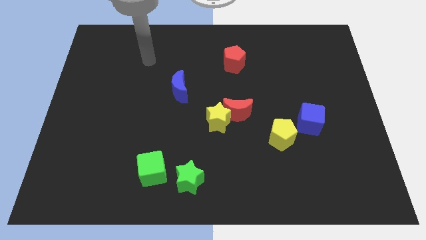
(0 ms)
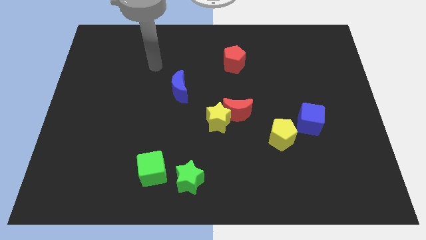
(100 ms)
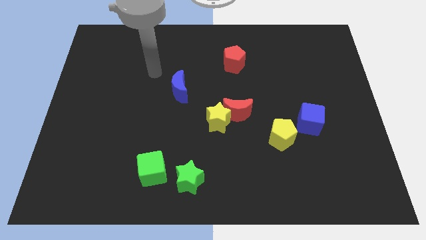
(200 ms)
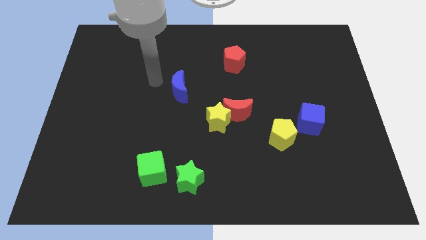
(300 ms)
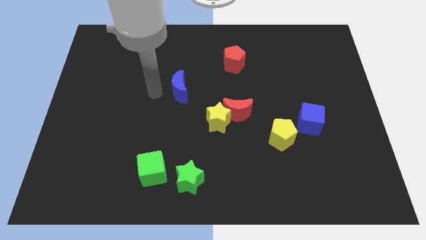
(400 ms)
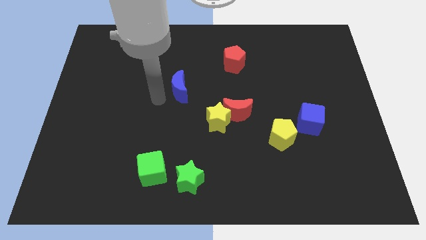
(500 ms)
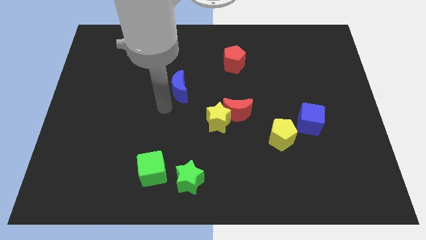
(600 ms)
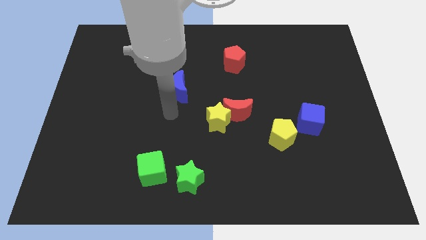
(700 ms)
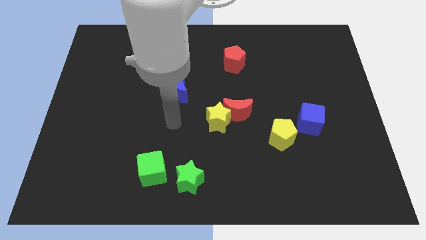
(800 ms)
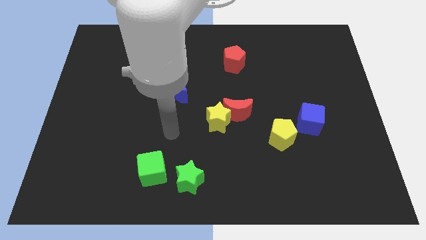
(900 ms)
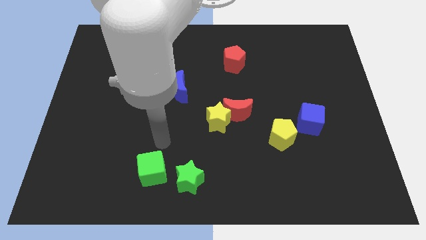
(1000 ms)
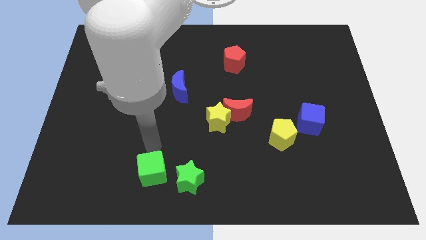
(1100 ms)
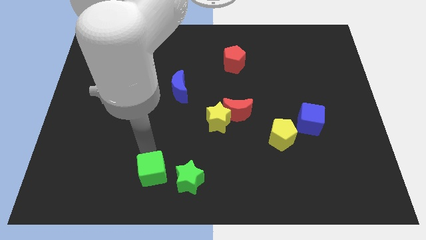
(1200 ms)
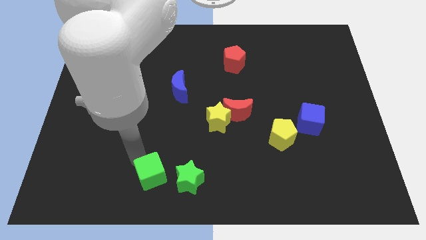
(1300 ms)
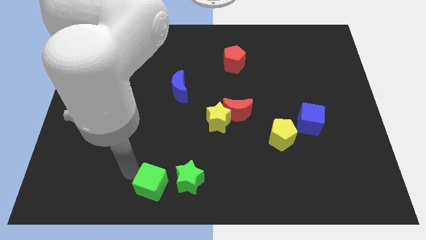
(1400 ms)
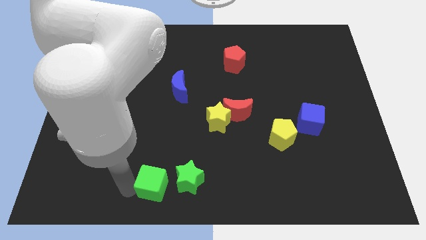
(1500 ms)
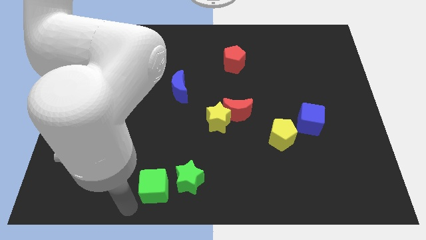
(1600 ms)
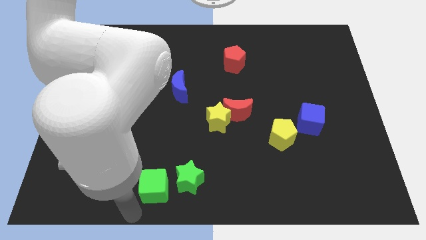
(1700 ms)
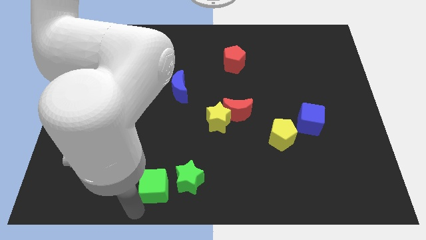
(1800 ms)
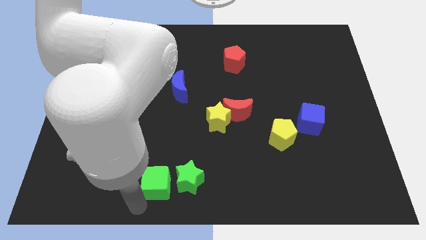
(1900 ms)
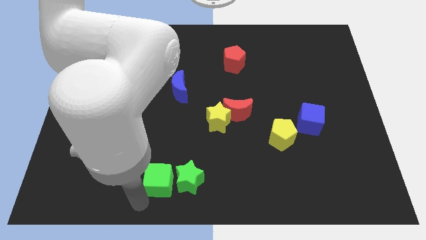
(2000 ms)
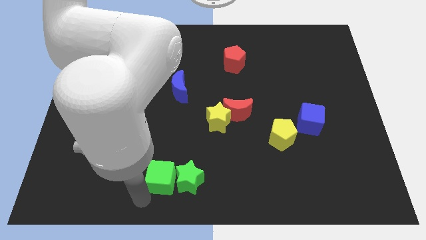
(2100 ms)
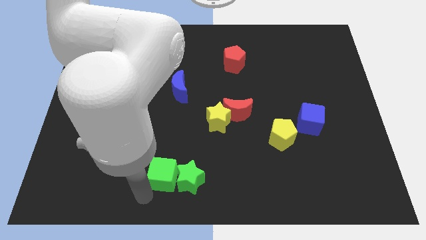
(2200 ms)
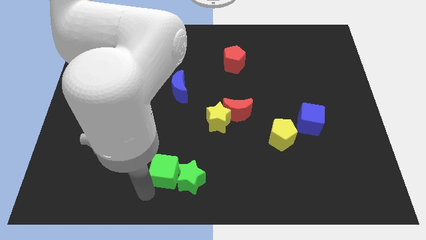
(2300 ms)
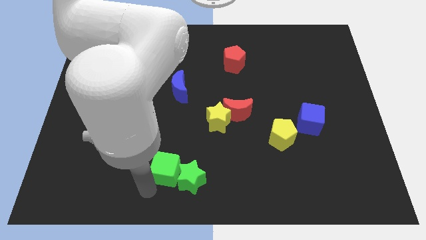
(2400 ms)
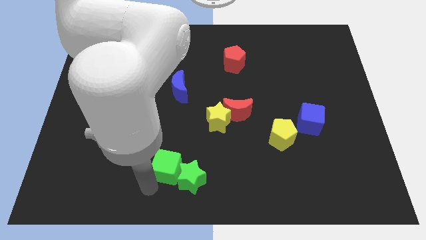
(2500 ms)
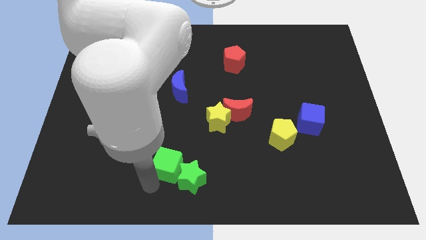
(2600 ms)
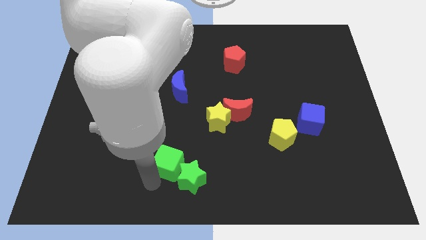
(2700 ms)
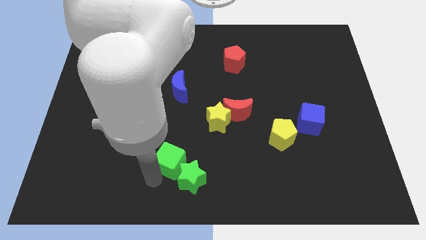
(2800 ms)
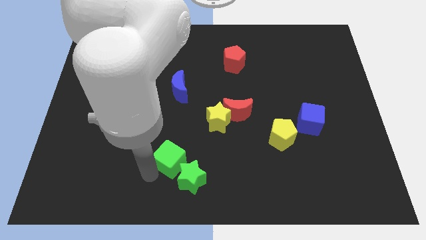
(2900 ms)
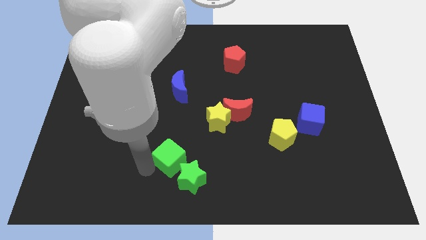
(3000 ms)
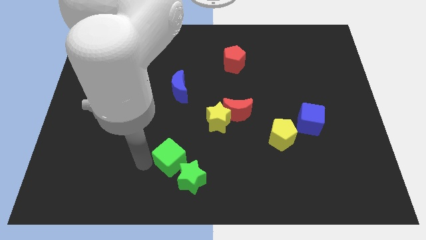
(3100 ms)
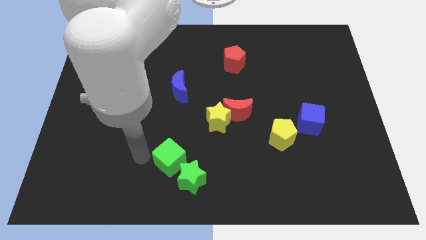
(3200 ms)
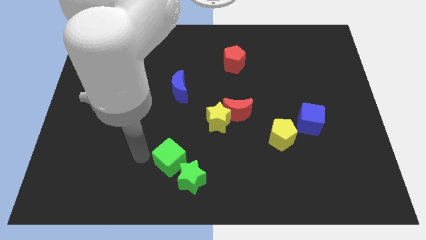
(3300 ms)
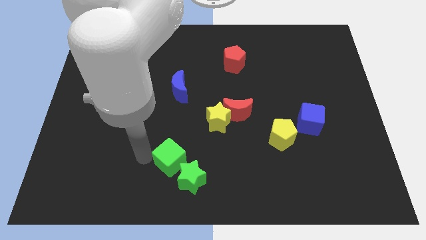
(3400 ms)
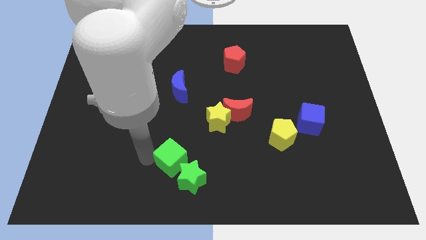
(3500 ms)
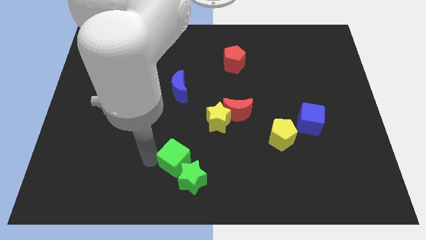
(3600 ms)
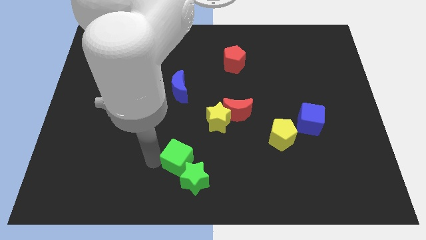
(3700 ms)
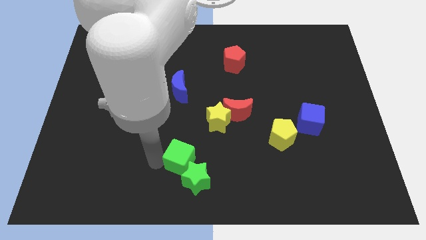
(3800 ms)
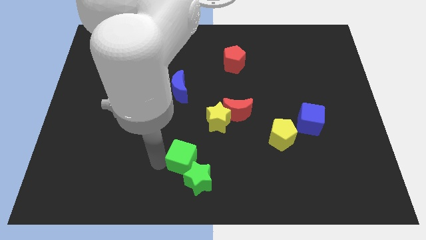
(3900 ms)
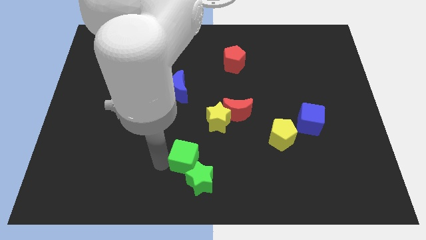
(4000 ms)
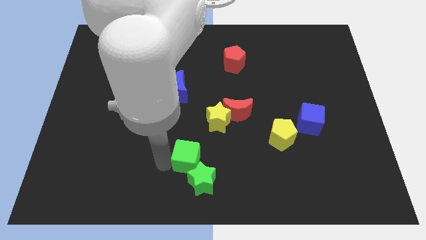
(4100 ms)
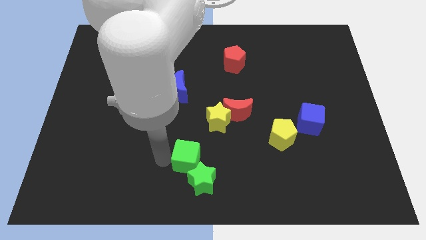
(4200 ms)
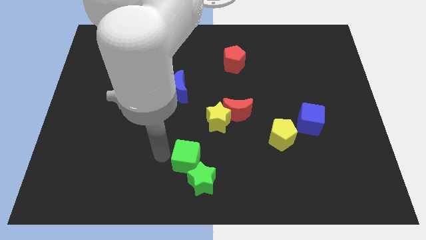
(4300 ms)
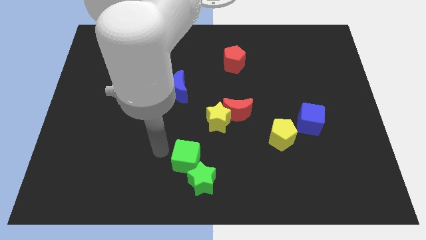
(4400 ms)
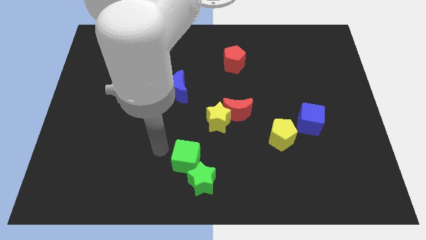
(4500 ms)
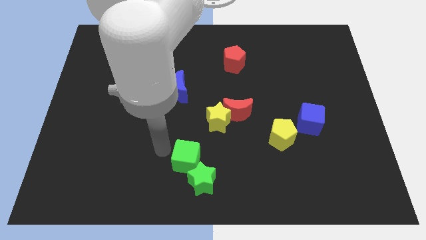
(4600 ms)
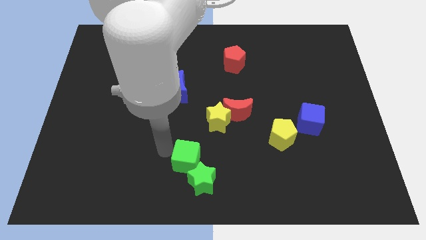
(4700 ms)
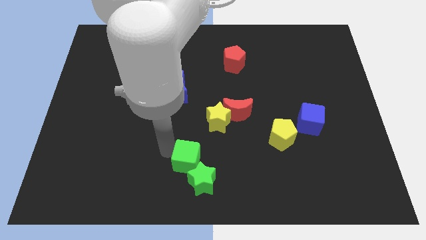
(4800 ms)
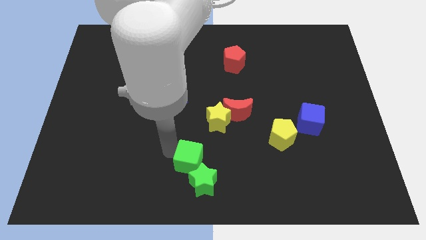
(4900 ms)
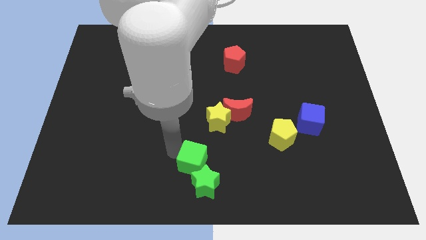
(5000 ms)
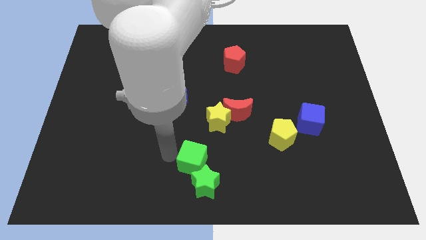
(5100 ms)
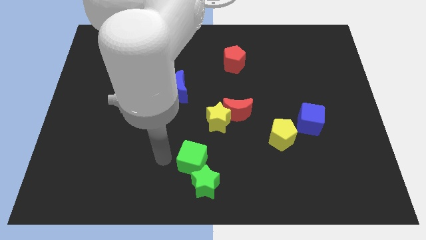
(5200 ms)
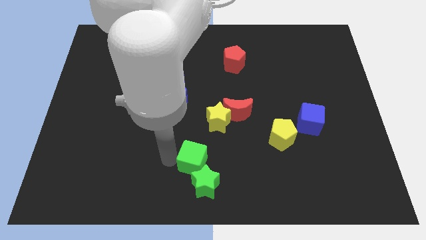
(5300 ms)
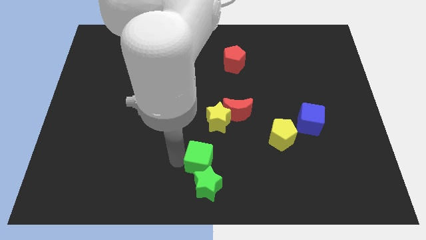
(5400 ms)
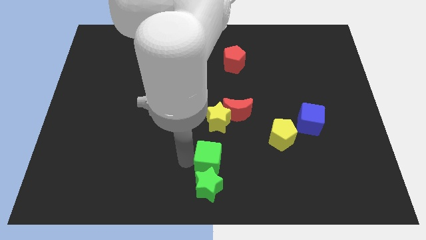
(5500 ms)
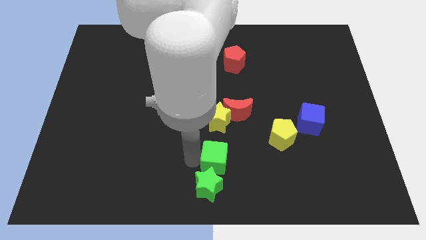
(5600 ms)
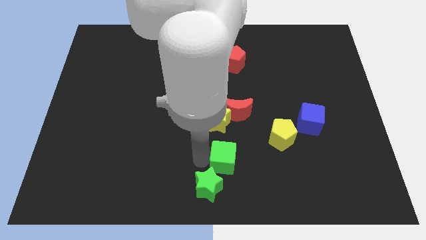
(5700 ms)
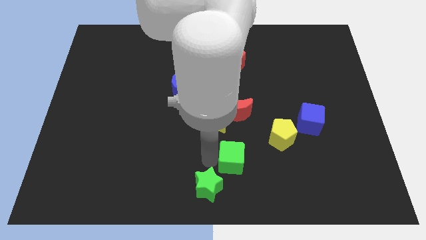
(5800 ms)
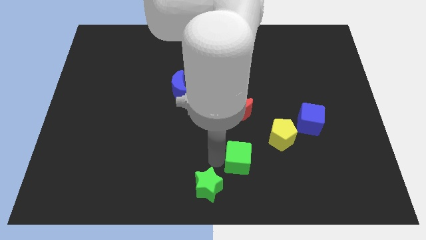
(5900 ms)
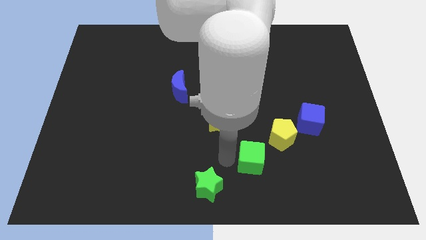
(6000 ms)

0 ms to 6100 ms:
slide the green cube right

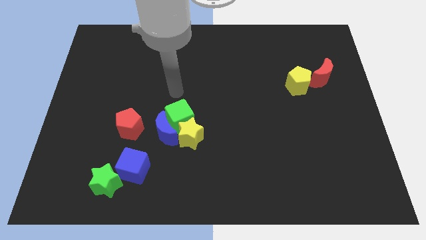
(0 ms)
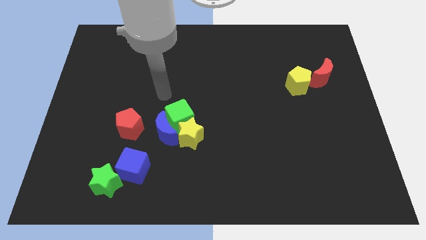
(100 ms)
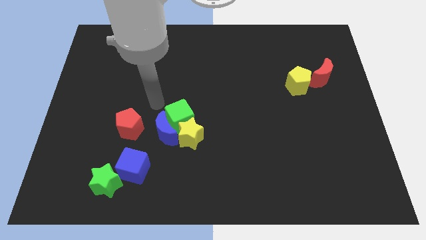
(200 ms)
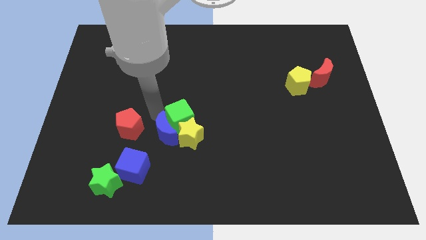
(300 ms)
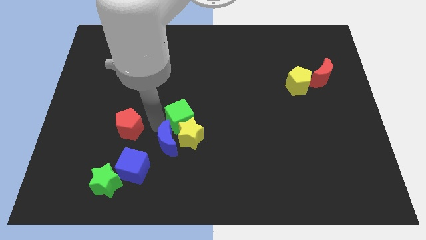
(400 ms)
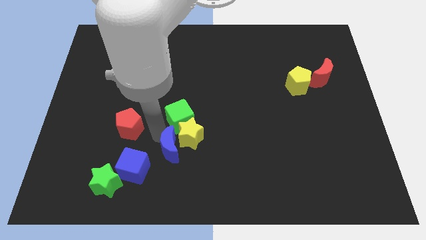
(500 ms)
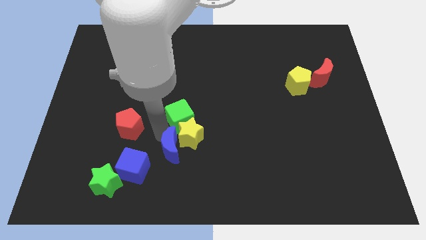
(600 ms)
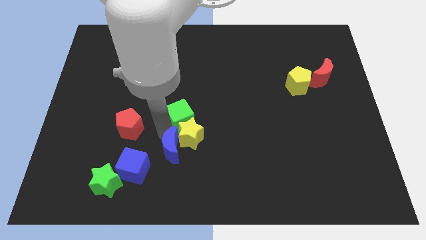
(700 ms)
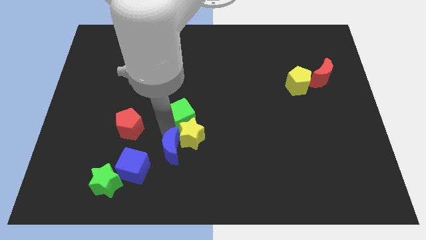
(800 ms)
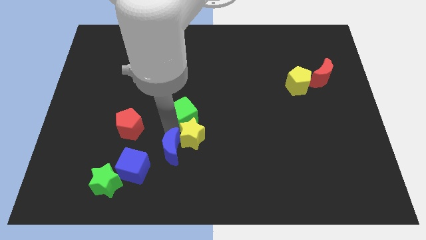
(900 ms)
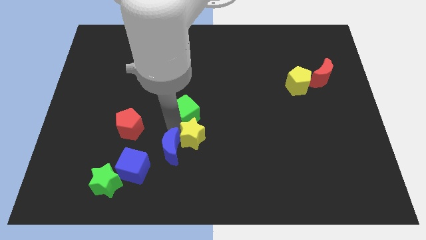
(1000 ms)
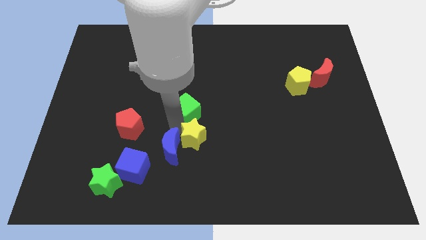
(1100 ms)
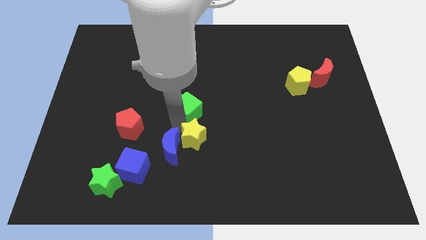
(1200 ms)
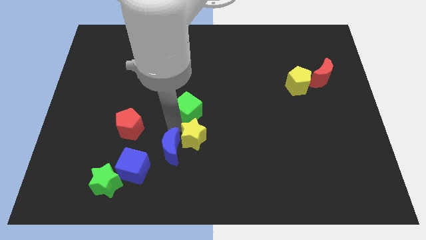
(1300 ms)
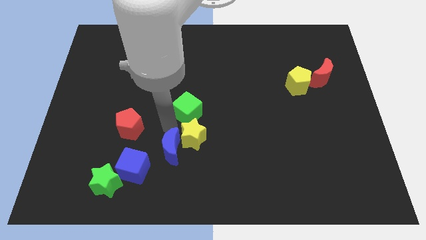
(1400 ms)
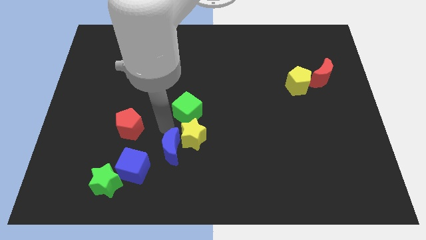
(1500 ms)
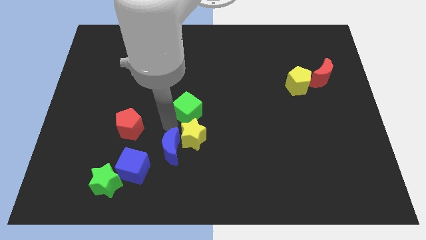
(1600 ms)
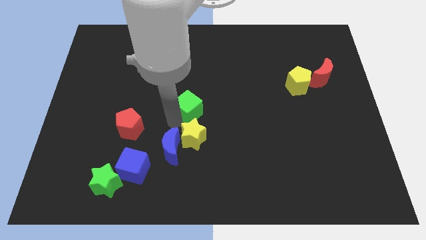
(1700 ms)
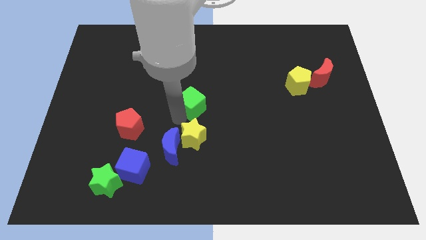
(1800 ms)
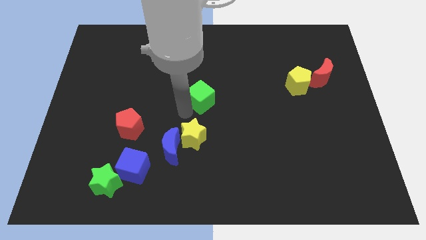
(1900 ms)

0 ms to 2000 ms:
slightly push the green cube up and then to the right
